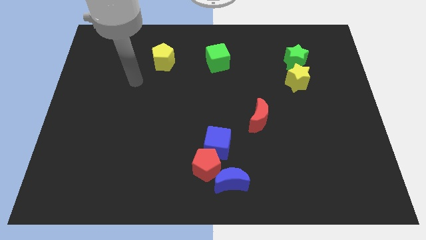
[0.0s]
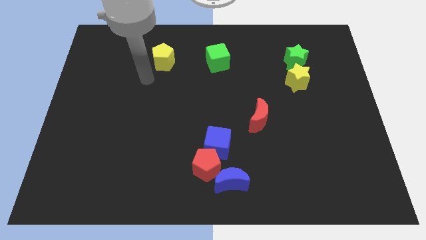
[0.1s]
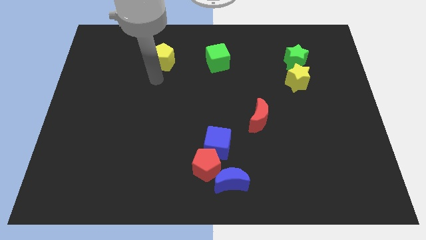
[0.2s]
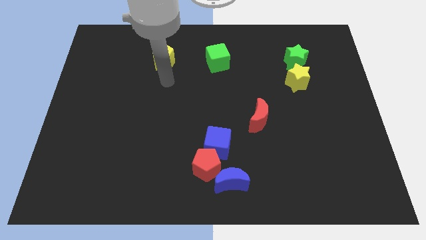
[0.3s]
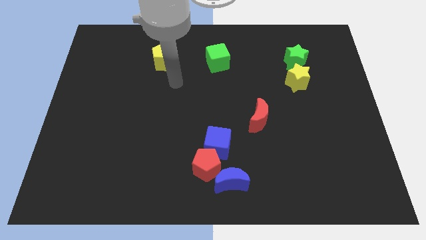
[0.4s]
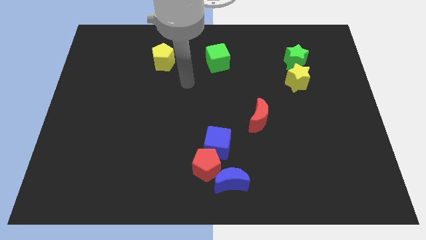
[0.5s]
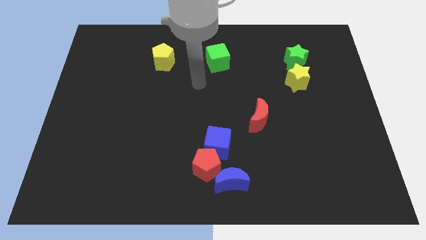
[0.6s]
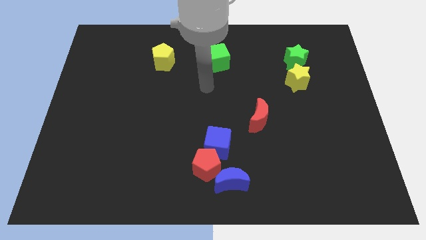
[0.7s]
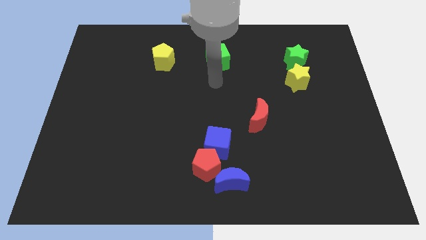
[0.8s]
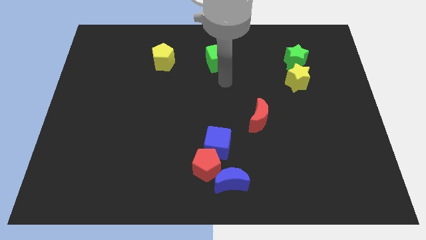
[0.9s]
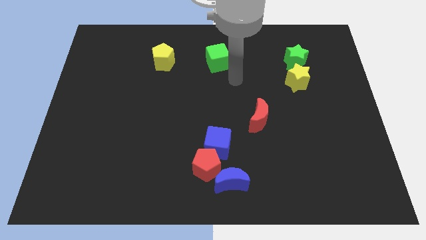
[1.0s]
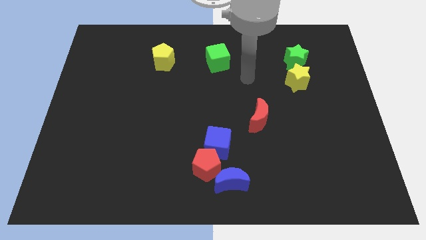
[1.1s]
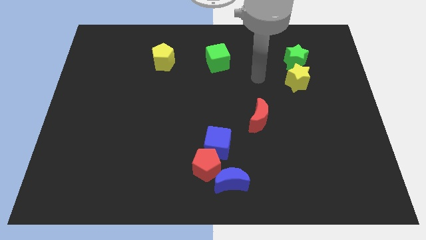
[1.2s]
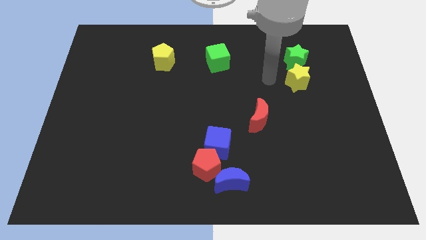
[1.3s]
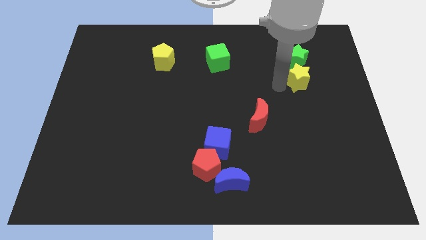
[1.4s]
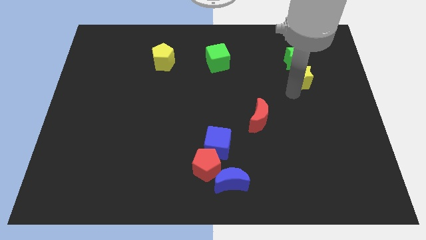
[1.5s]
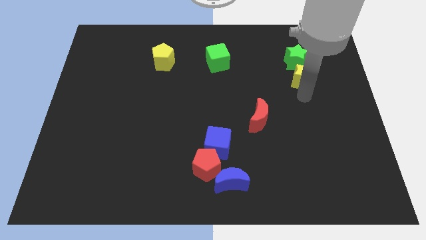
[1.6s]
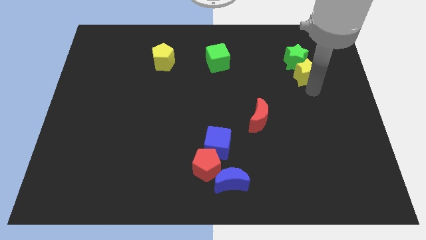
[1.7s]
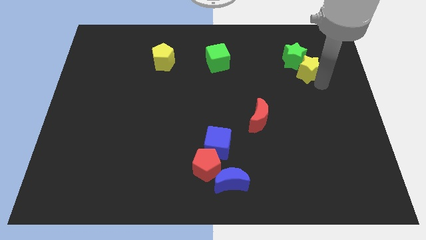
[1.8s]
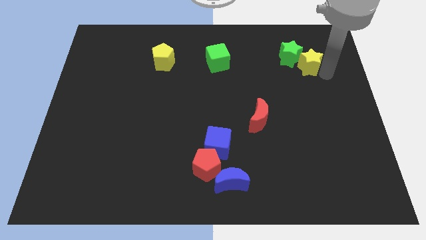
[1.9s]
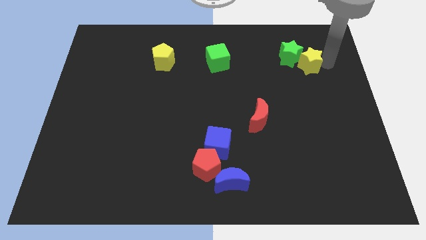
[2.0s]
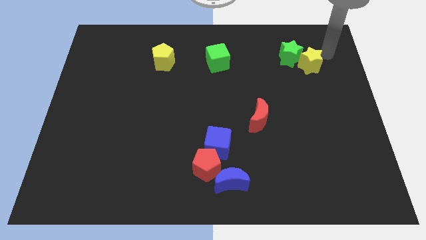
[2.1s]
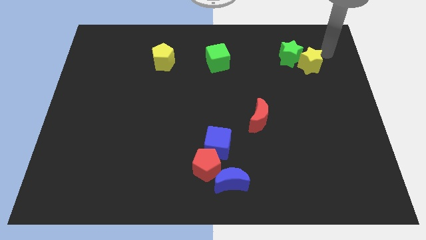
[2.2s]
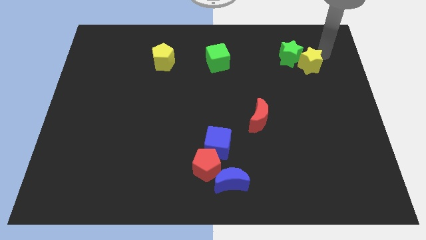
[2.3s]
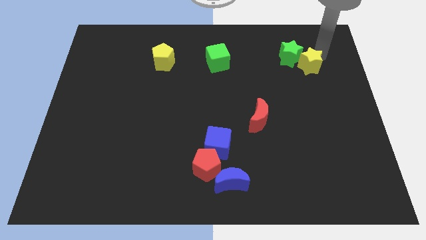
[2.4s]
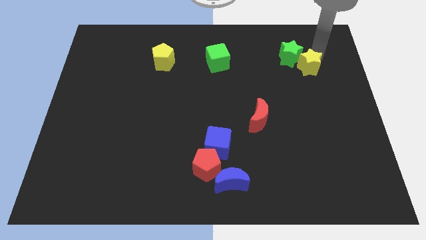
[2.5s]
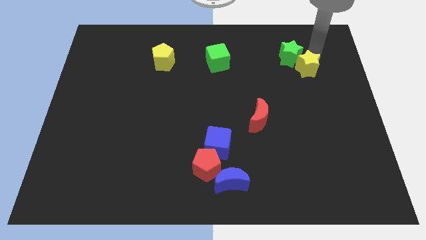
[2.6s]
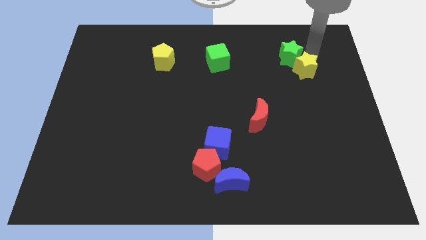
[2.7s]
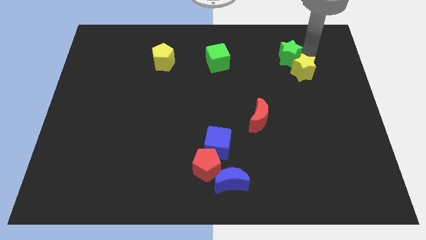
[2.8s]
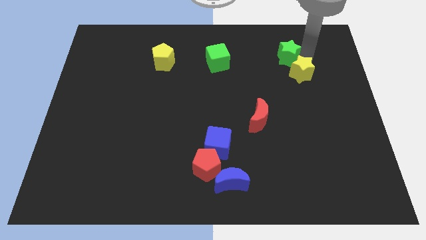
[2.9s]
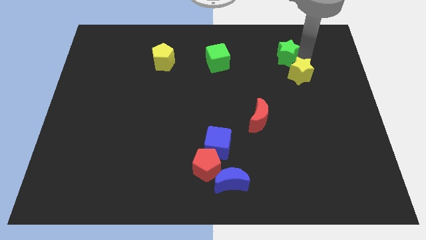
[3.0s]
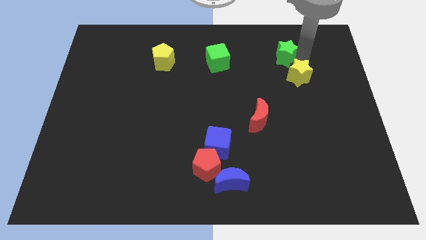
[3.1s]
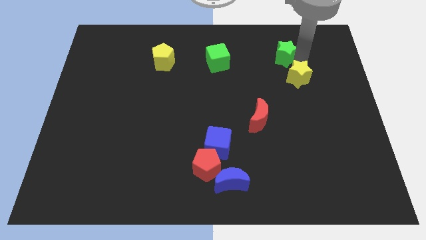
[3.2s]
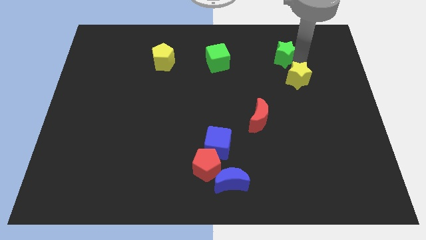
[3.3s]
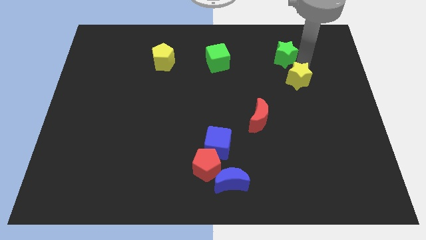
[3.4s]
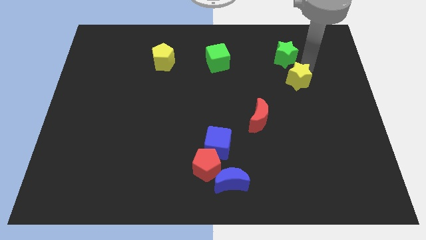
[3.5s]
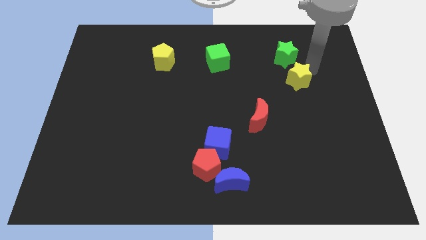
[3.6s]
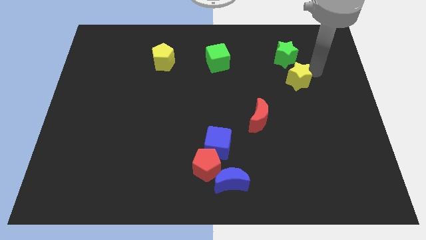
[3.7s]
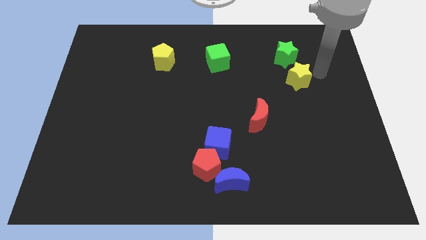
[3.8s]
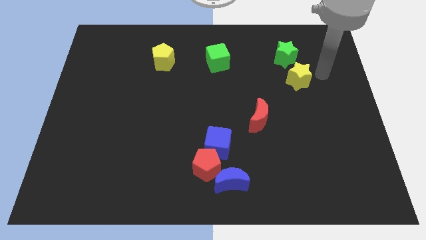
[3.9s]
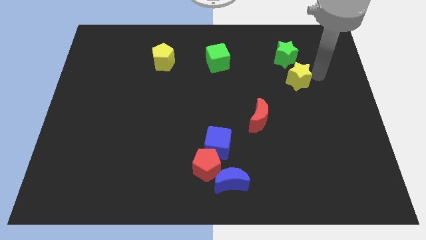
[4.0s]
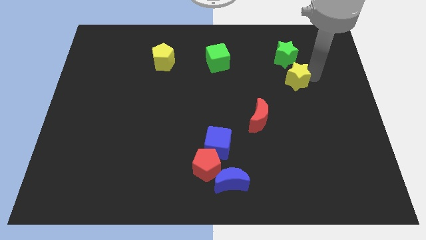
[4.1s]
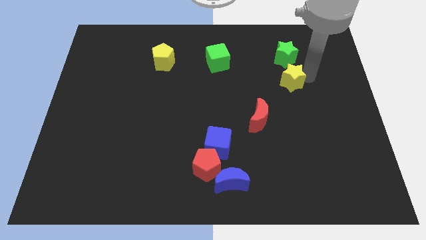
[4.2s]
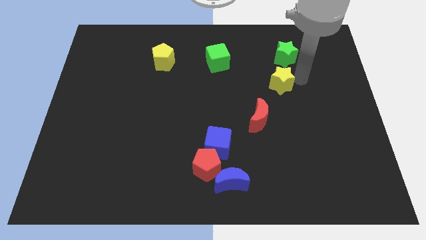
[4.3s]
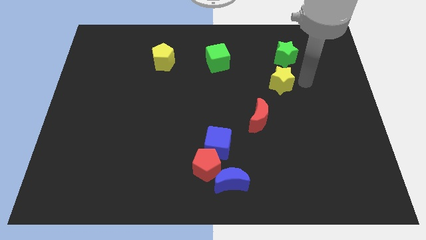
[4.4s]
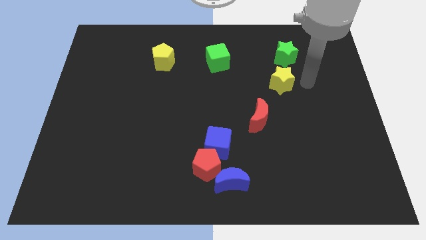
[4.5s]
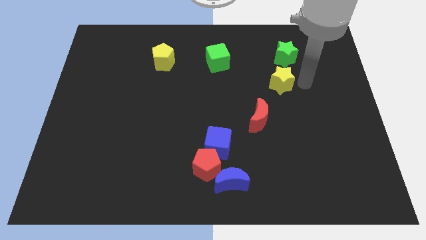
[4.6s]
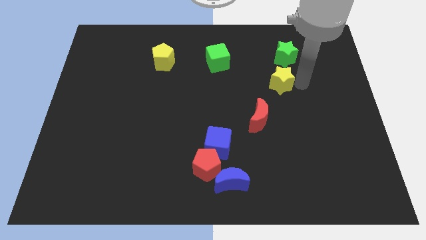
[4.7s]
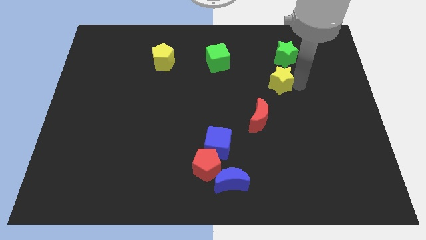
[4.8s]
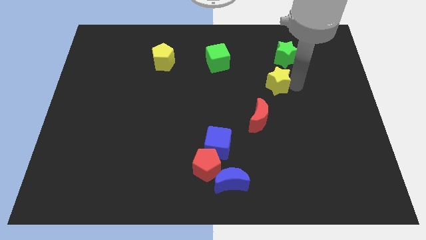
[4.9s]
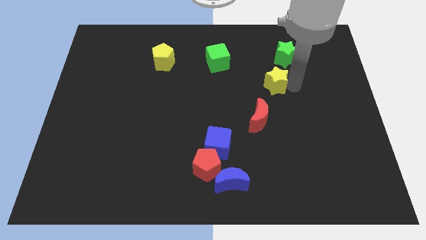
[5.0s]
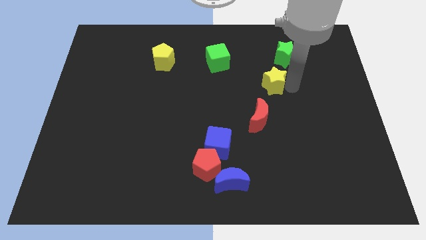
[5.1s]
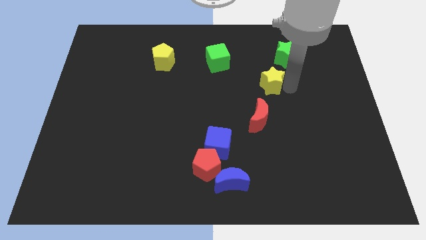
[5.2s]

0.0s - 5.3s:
slightly push the yellow star left

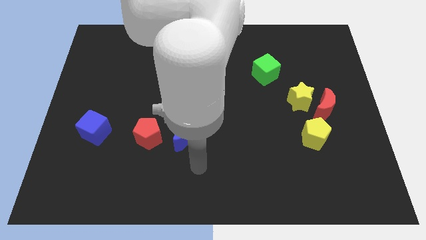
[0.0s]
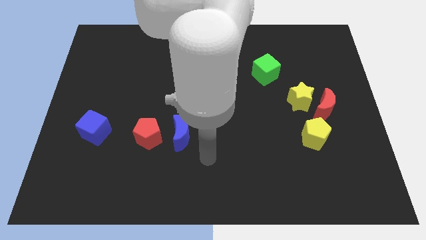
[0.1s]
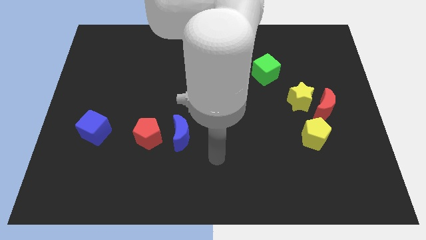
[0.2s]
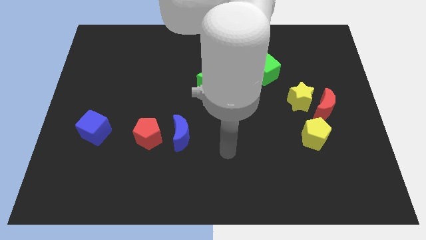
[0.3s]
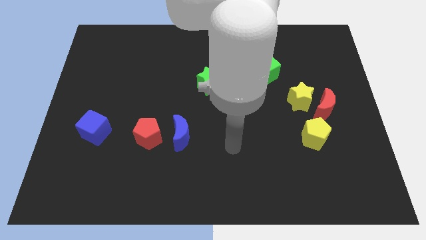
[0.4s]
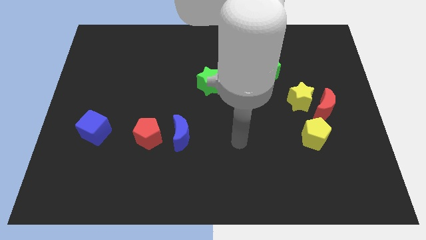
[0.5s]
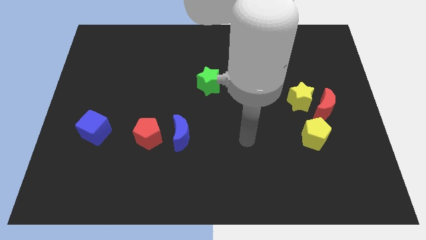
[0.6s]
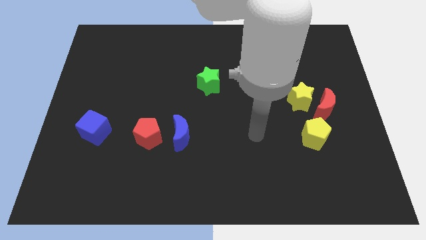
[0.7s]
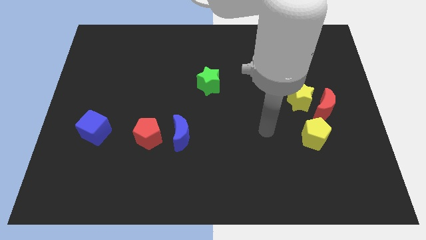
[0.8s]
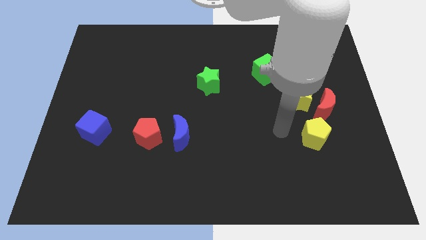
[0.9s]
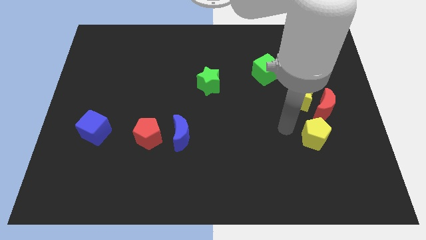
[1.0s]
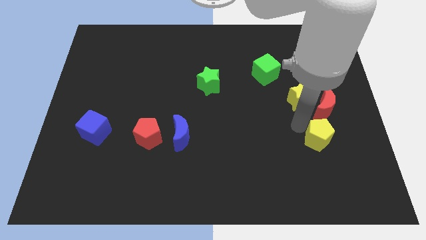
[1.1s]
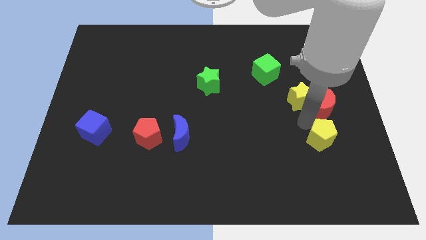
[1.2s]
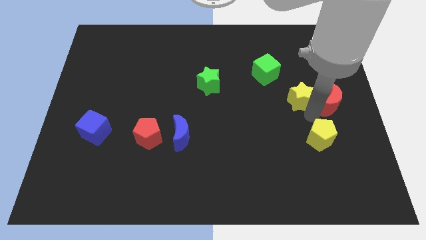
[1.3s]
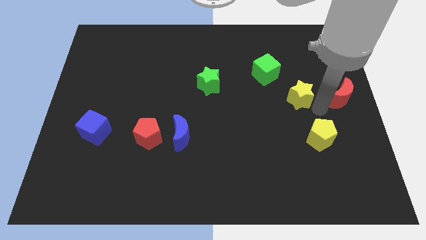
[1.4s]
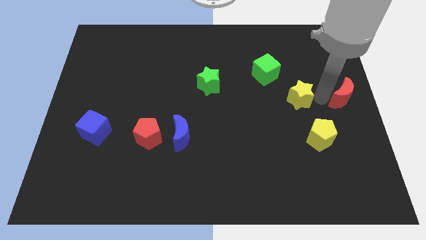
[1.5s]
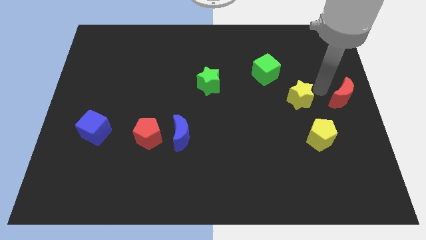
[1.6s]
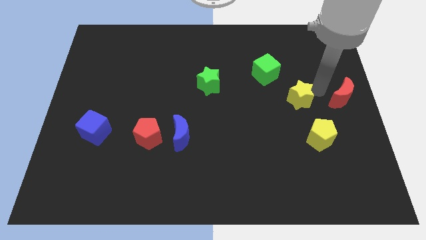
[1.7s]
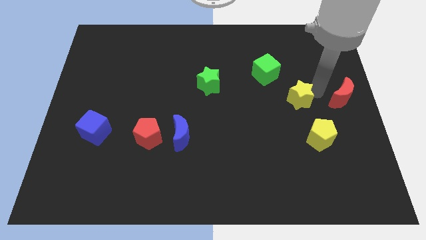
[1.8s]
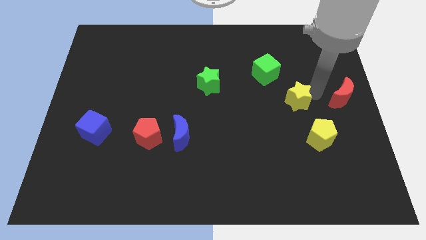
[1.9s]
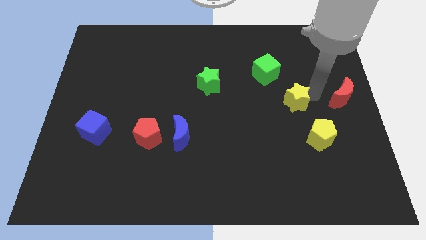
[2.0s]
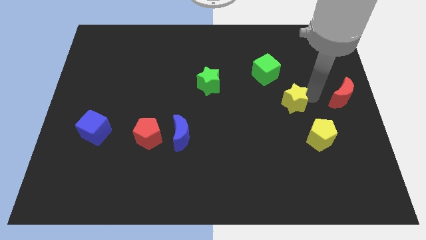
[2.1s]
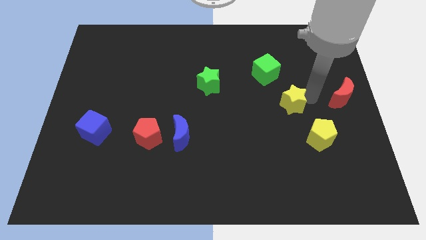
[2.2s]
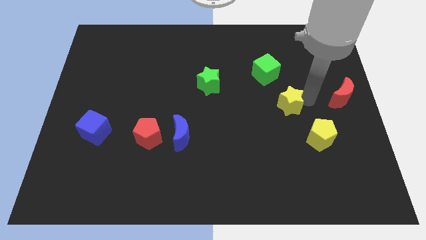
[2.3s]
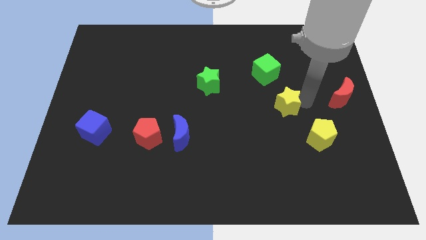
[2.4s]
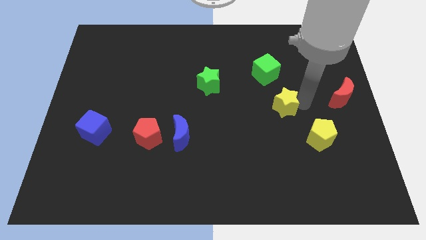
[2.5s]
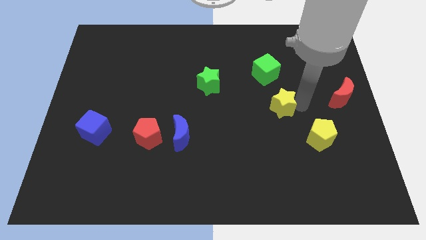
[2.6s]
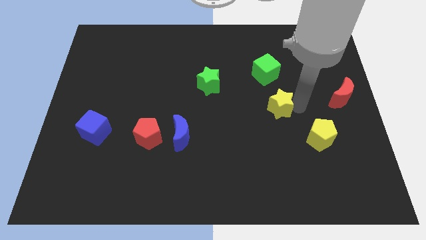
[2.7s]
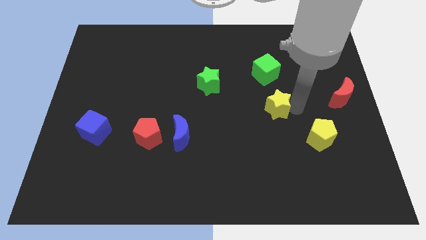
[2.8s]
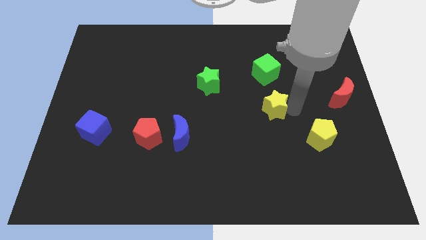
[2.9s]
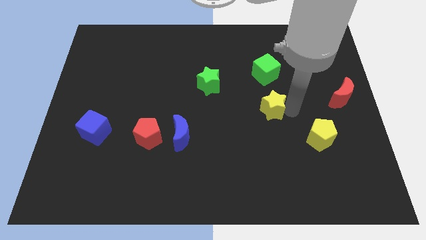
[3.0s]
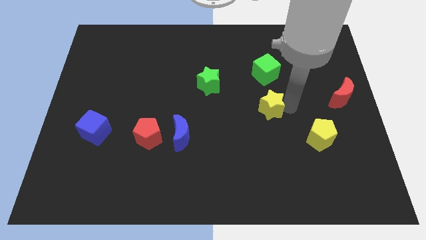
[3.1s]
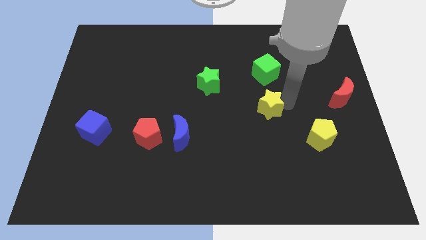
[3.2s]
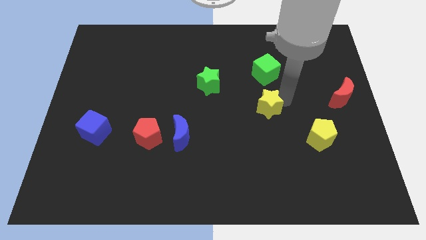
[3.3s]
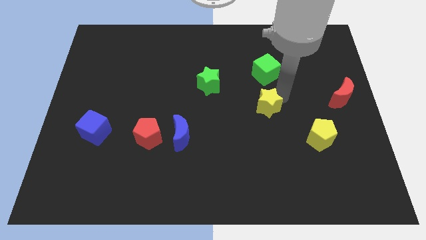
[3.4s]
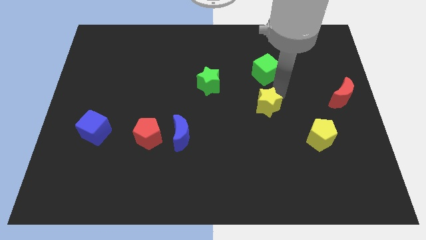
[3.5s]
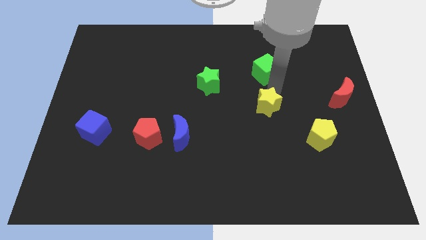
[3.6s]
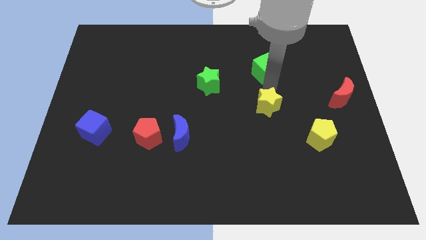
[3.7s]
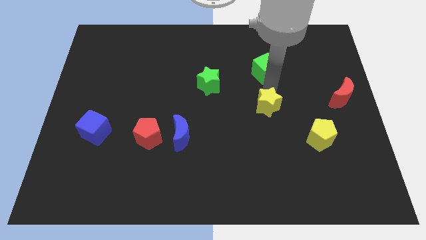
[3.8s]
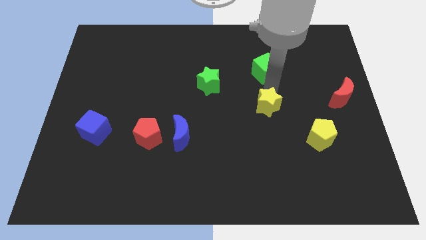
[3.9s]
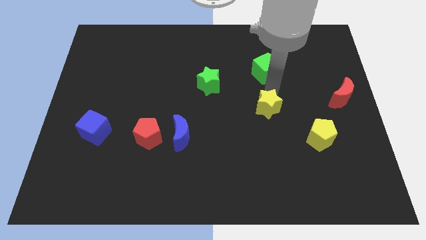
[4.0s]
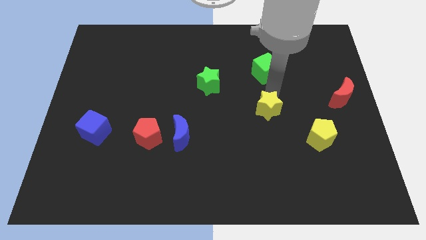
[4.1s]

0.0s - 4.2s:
slightly slide the yellow star diagonally downwards and to the left
